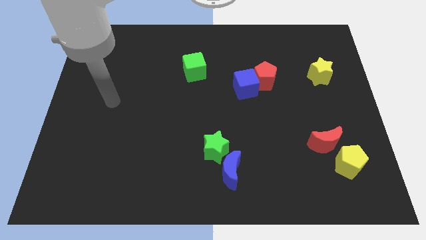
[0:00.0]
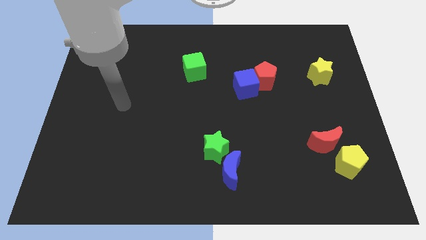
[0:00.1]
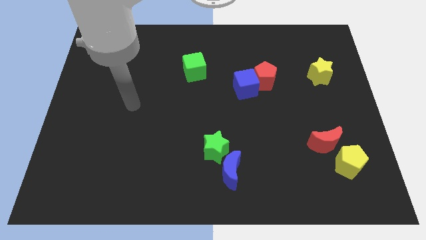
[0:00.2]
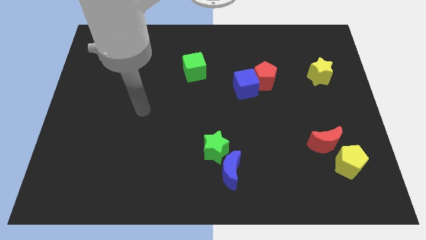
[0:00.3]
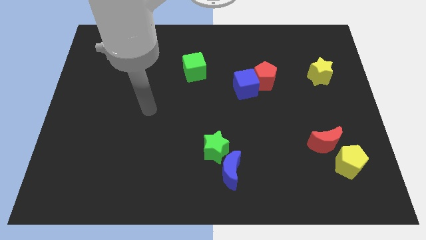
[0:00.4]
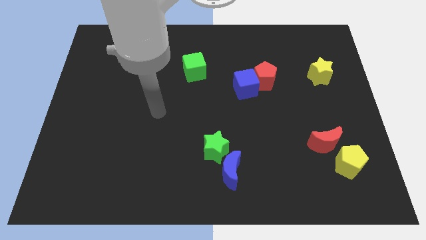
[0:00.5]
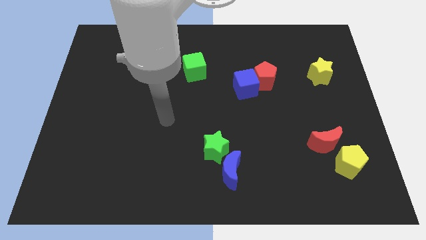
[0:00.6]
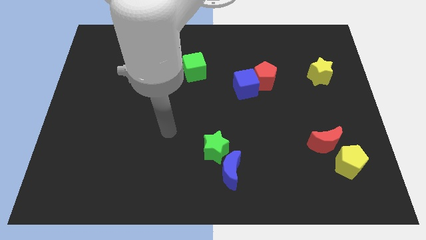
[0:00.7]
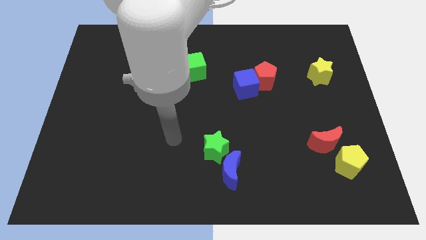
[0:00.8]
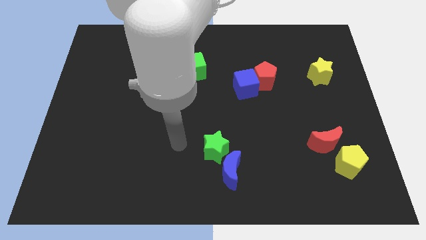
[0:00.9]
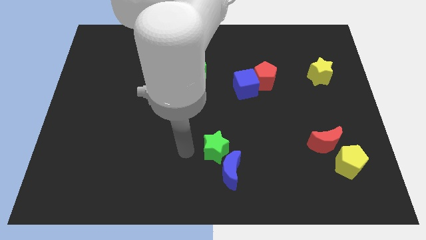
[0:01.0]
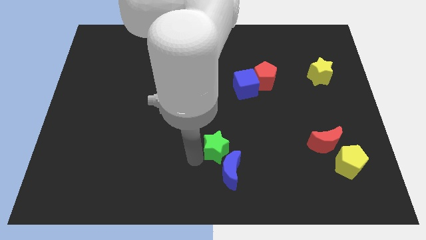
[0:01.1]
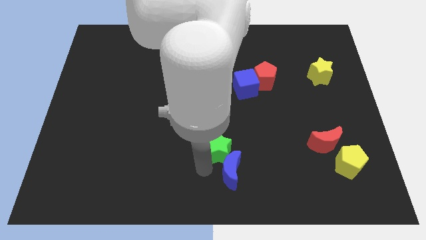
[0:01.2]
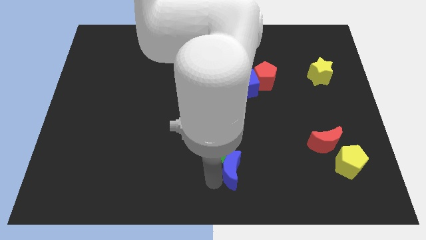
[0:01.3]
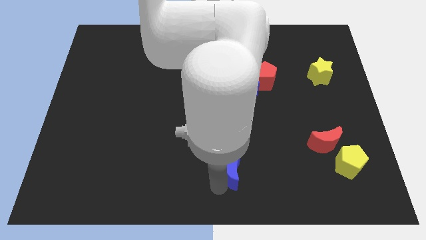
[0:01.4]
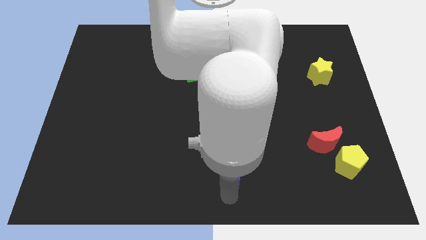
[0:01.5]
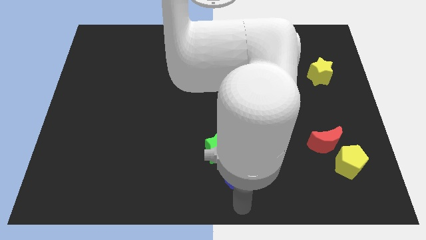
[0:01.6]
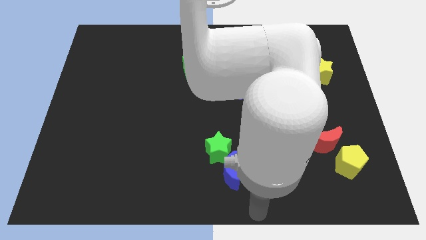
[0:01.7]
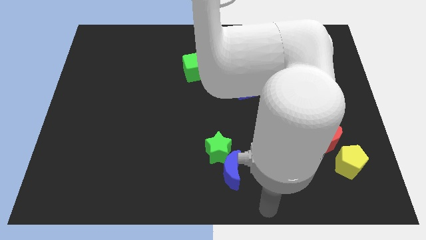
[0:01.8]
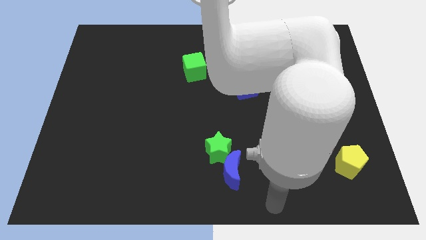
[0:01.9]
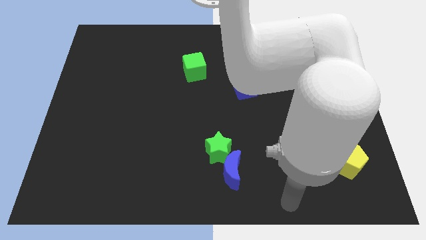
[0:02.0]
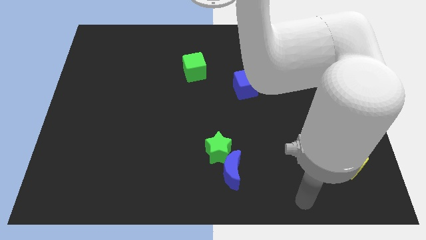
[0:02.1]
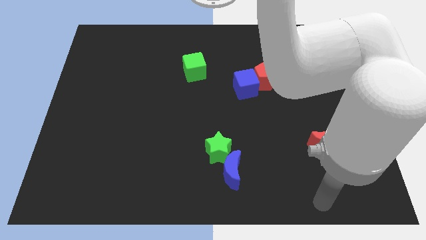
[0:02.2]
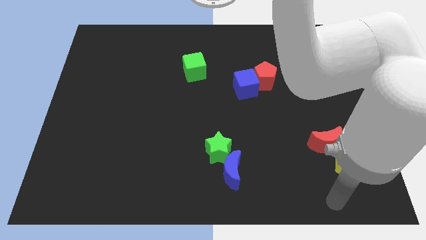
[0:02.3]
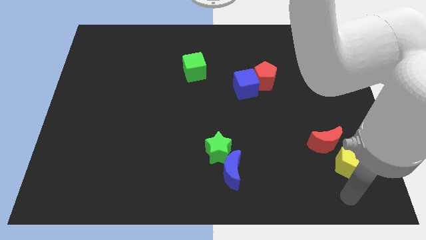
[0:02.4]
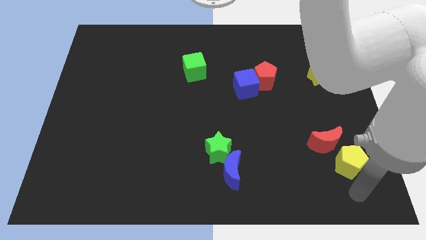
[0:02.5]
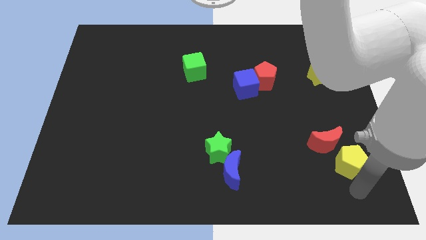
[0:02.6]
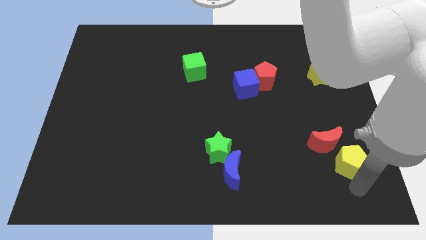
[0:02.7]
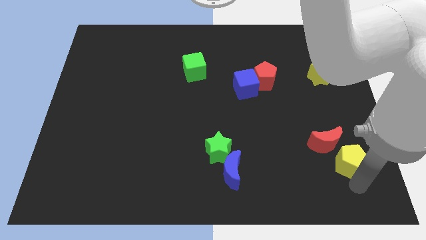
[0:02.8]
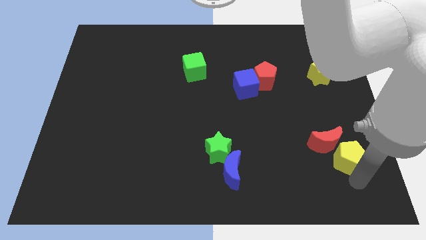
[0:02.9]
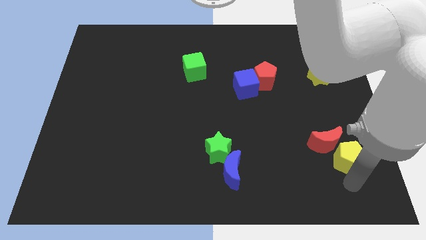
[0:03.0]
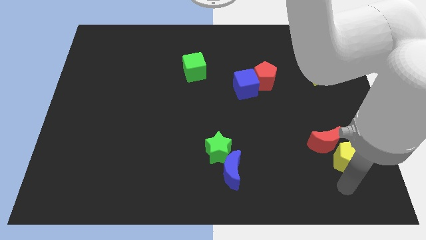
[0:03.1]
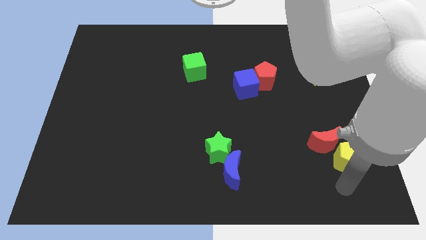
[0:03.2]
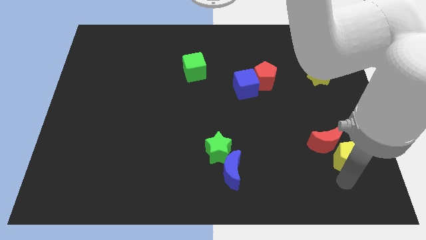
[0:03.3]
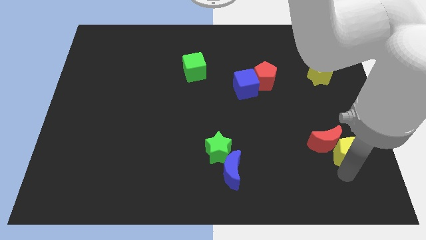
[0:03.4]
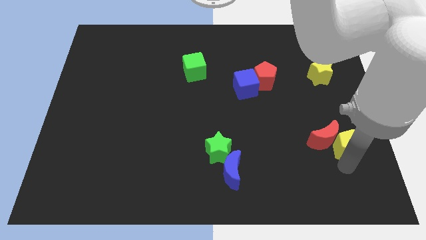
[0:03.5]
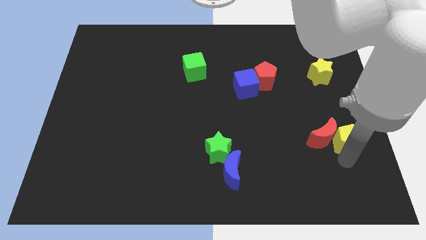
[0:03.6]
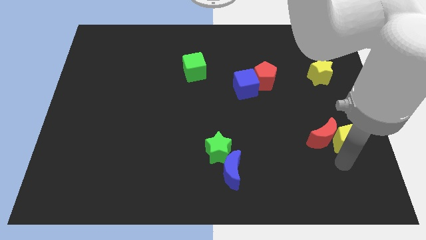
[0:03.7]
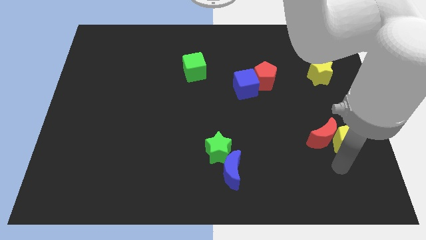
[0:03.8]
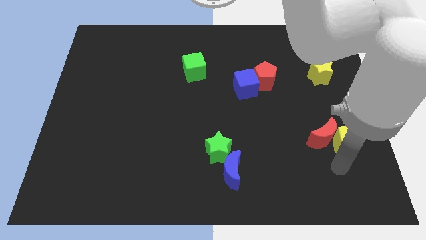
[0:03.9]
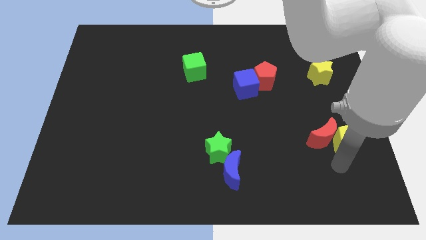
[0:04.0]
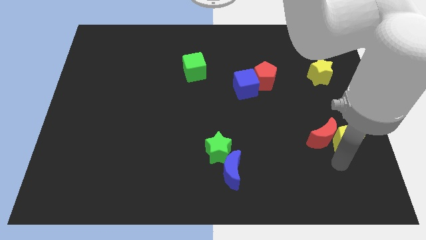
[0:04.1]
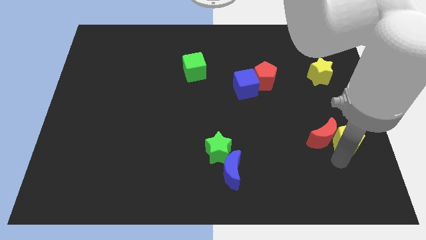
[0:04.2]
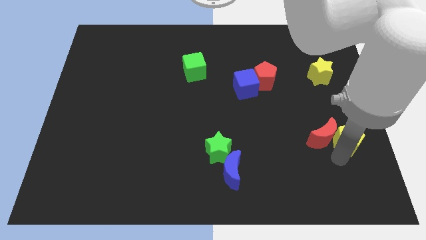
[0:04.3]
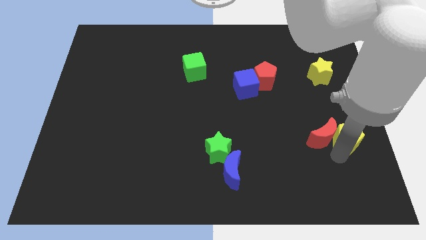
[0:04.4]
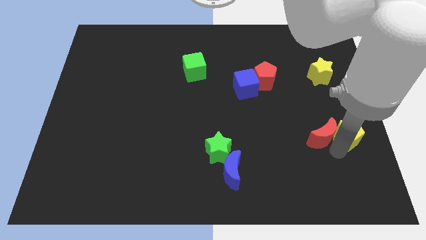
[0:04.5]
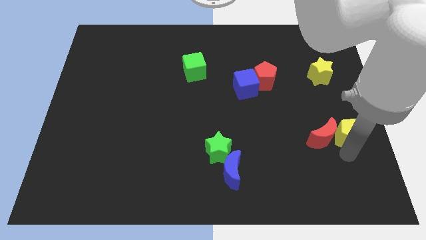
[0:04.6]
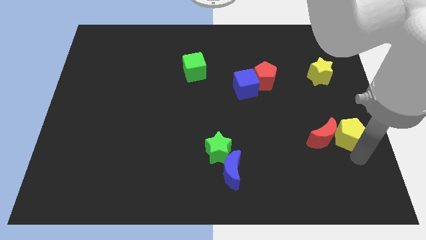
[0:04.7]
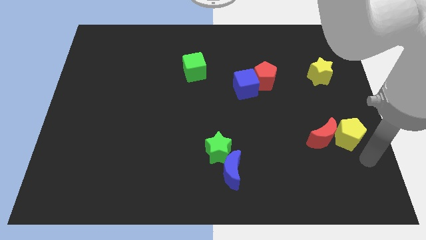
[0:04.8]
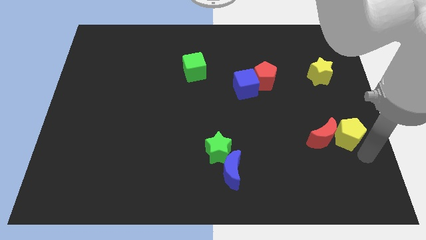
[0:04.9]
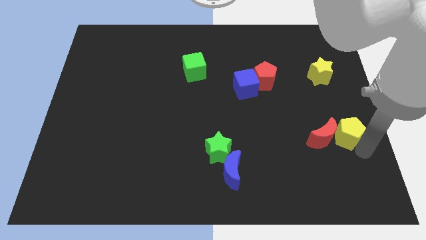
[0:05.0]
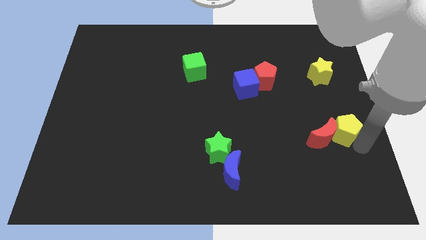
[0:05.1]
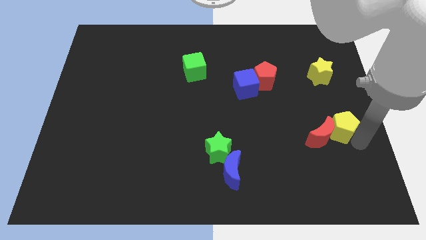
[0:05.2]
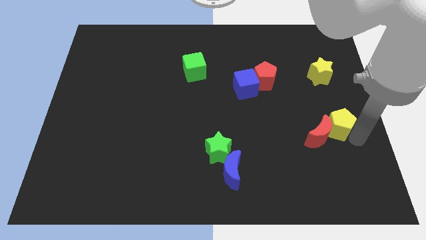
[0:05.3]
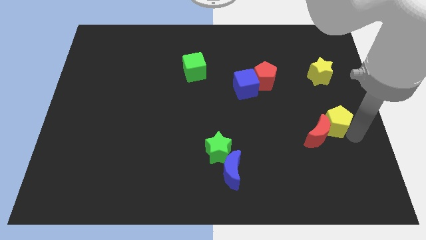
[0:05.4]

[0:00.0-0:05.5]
push the yellow pentagon to the top of the red moon

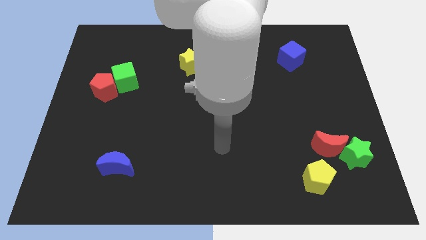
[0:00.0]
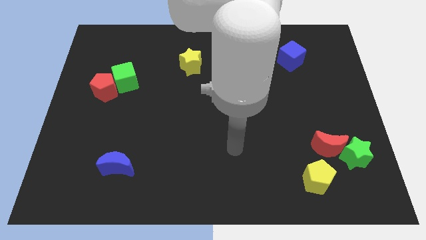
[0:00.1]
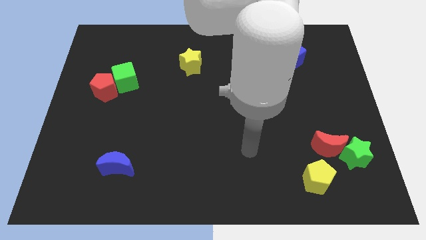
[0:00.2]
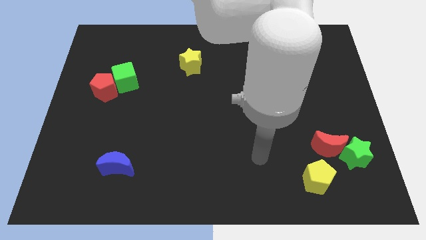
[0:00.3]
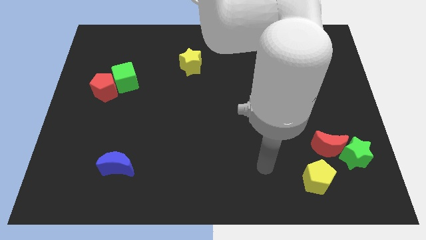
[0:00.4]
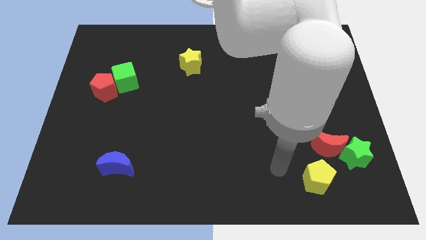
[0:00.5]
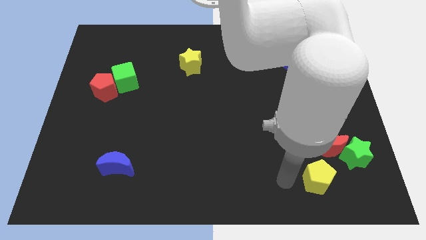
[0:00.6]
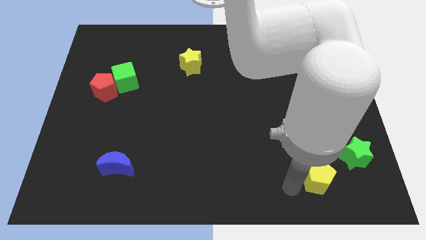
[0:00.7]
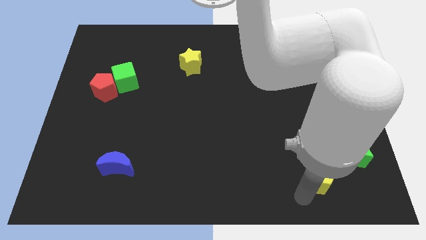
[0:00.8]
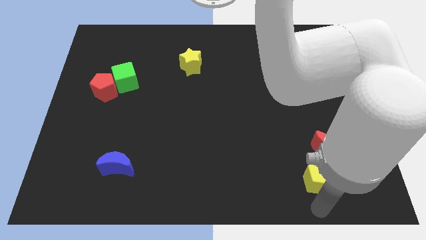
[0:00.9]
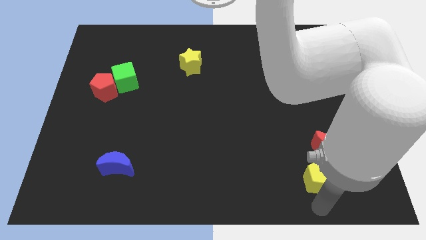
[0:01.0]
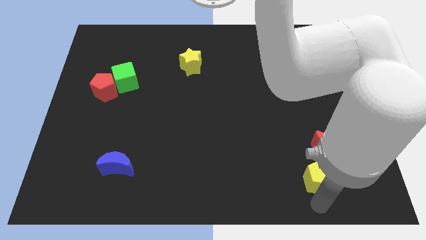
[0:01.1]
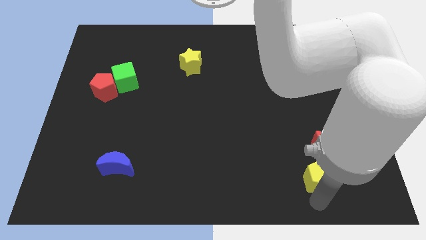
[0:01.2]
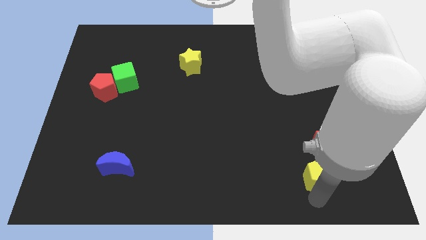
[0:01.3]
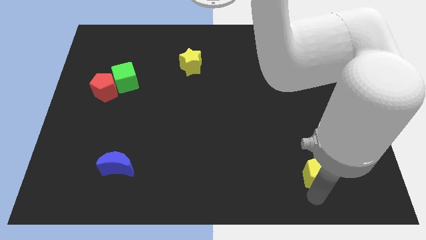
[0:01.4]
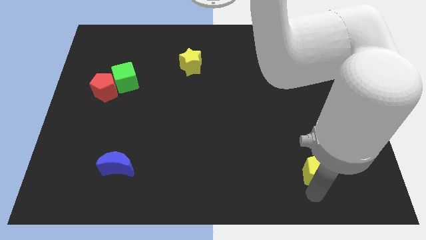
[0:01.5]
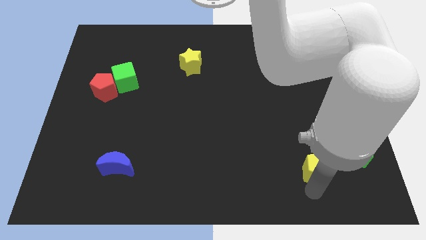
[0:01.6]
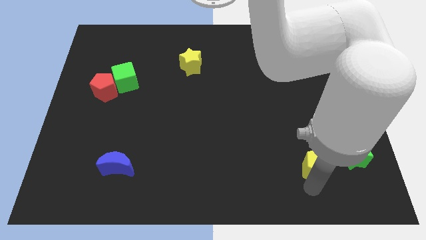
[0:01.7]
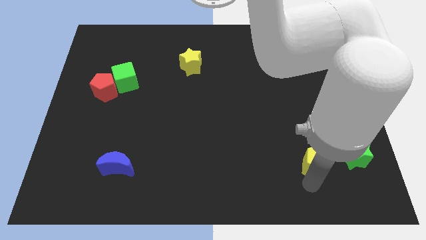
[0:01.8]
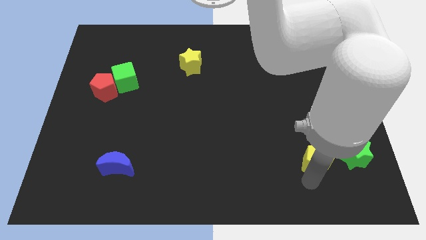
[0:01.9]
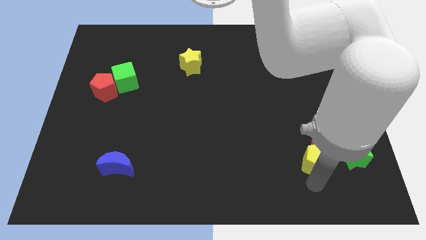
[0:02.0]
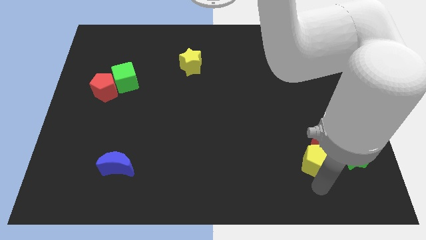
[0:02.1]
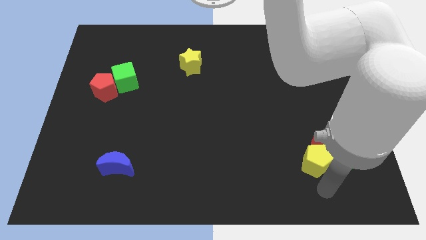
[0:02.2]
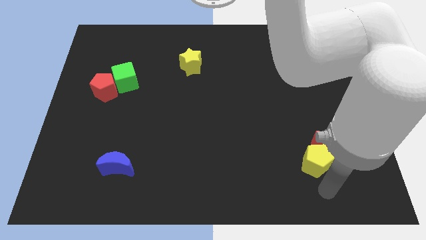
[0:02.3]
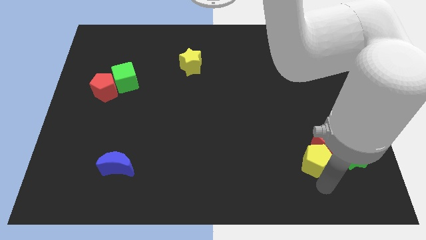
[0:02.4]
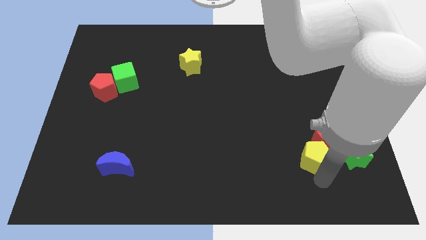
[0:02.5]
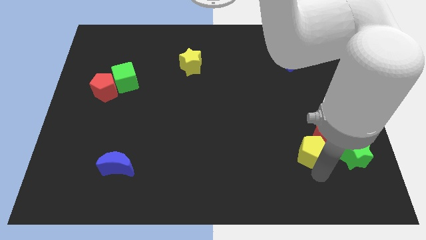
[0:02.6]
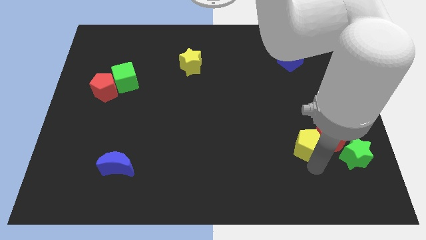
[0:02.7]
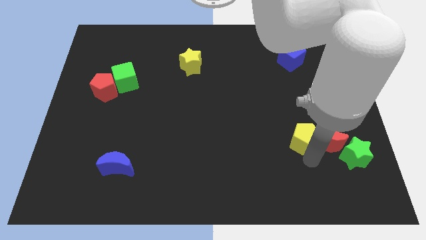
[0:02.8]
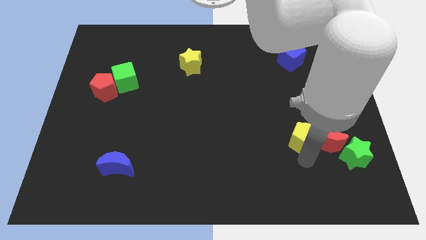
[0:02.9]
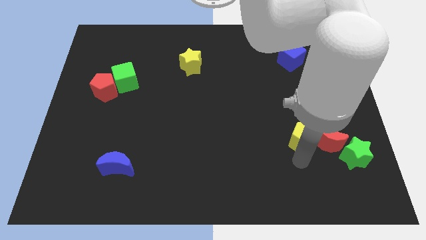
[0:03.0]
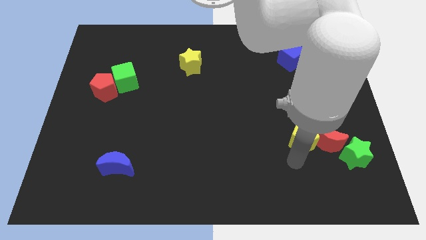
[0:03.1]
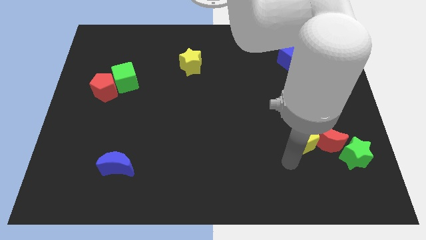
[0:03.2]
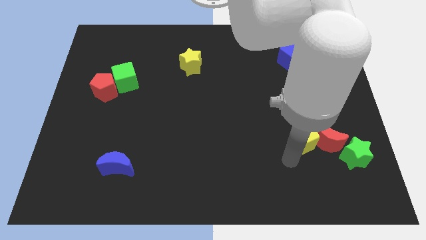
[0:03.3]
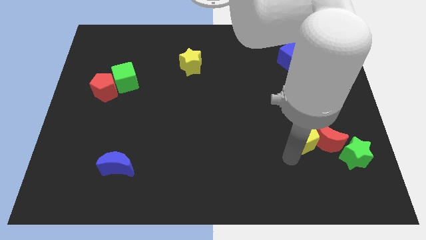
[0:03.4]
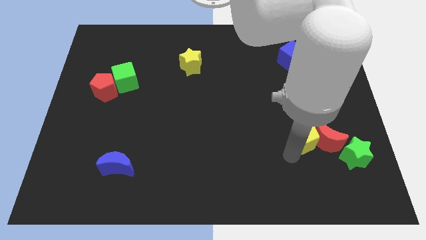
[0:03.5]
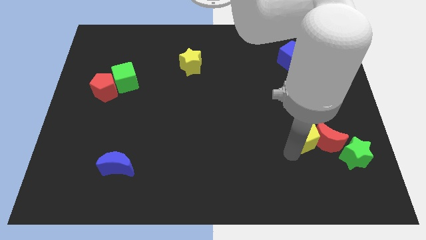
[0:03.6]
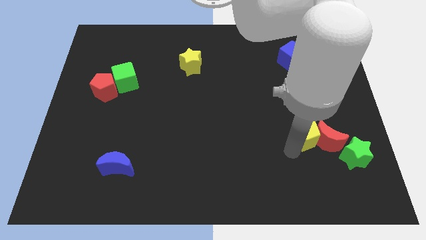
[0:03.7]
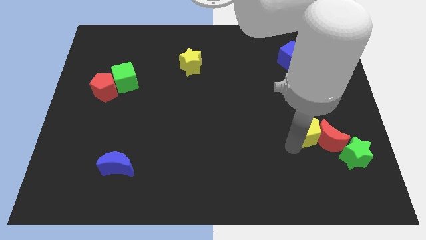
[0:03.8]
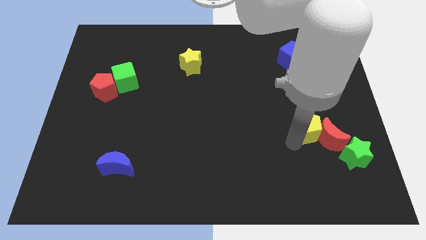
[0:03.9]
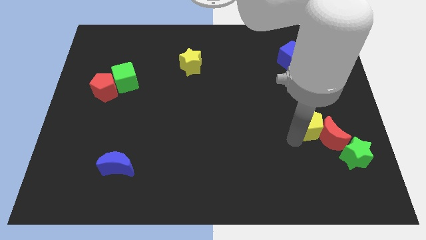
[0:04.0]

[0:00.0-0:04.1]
move the yellow pentagon to the top side of the red moon
